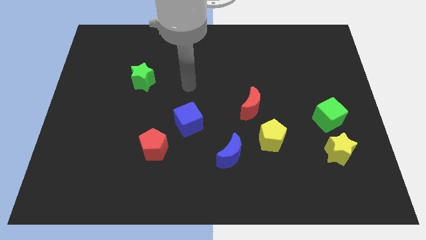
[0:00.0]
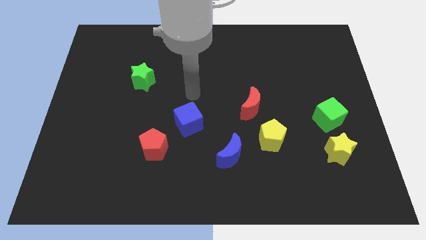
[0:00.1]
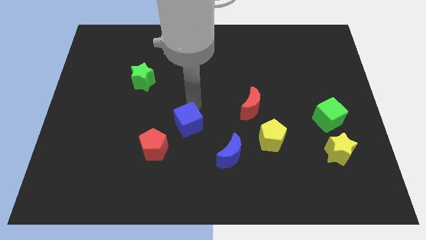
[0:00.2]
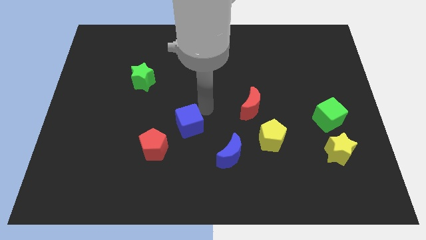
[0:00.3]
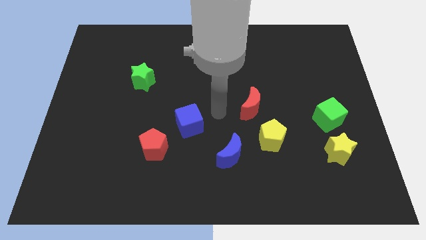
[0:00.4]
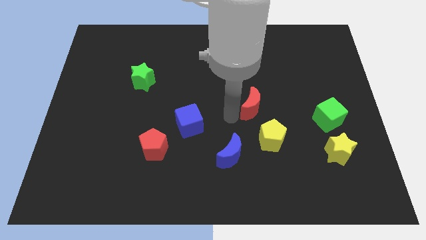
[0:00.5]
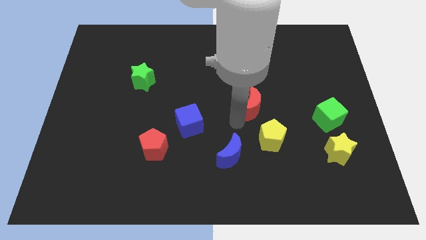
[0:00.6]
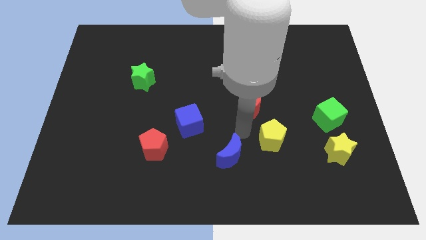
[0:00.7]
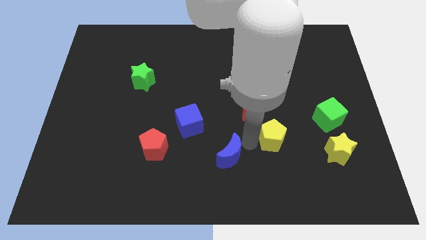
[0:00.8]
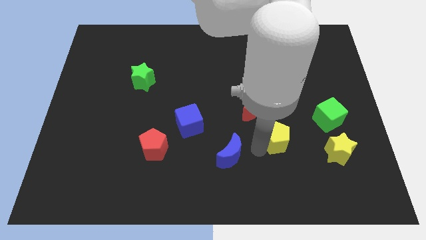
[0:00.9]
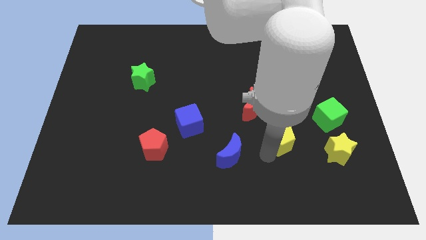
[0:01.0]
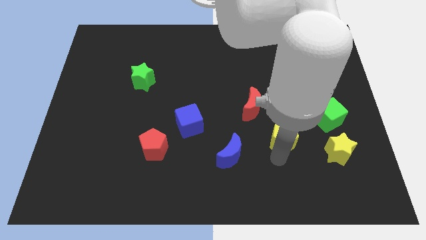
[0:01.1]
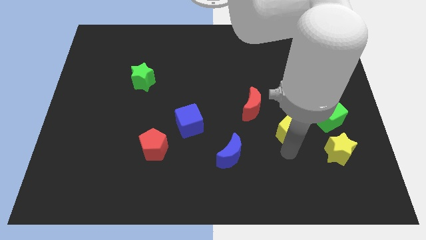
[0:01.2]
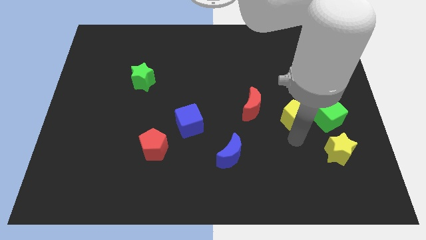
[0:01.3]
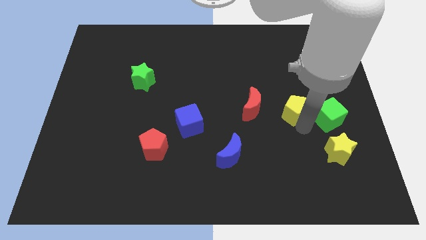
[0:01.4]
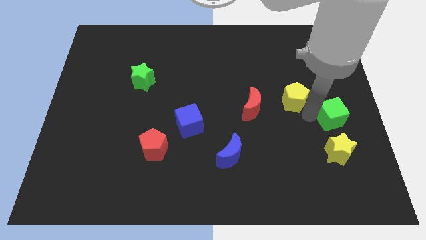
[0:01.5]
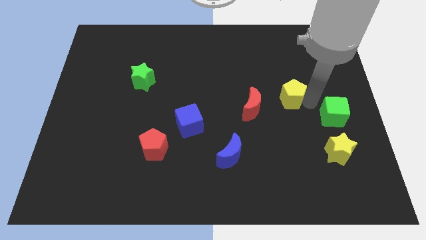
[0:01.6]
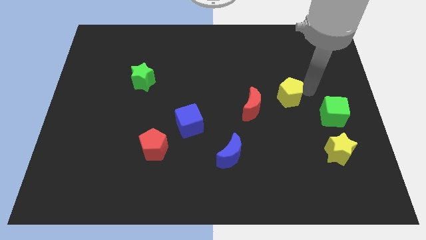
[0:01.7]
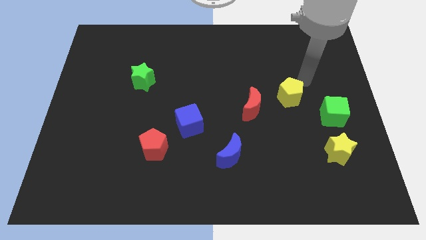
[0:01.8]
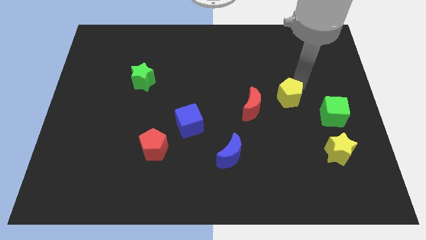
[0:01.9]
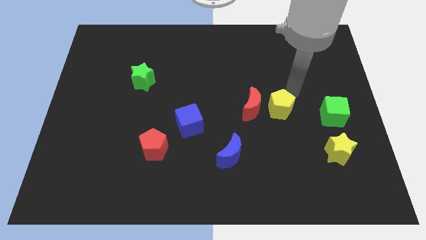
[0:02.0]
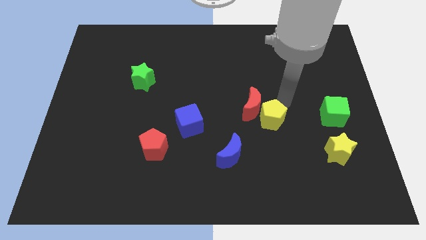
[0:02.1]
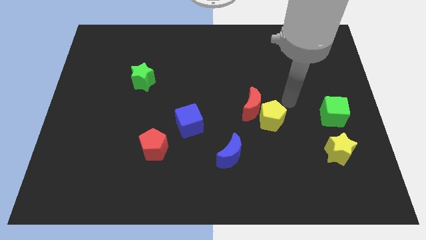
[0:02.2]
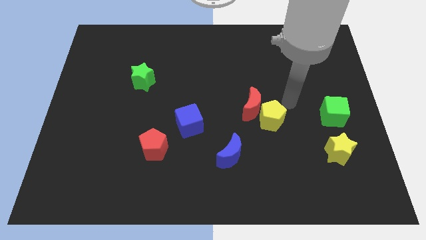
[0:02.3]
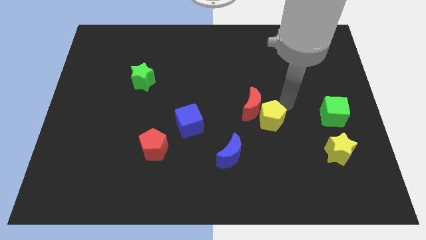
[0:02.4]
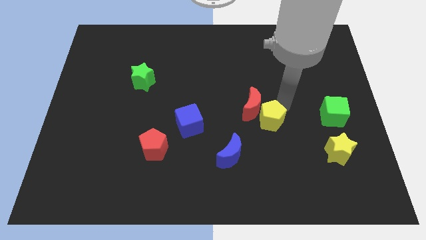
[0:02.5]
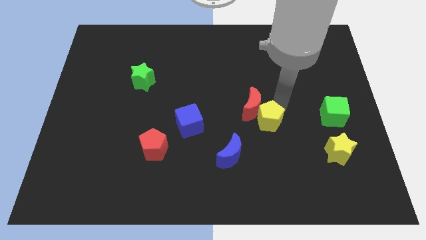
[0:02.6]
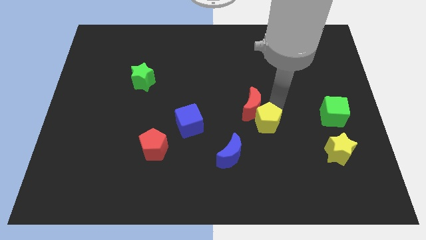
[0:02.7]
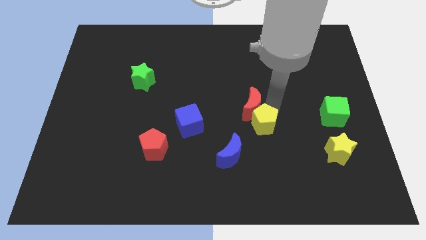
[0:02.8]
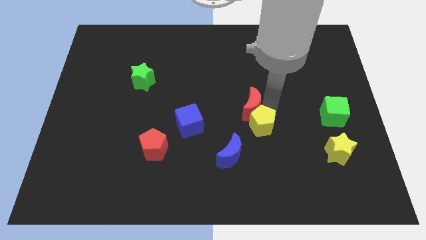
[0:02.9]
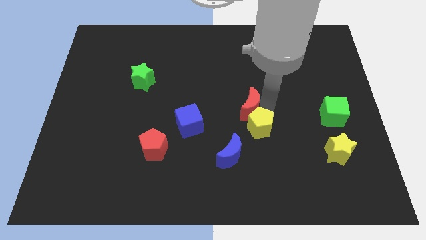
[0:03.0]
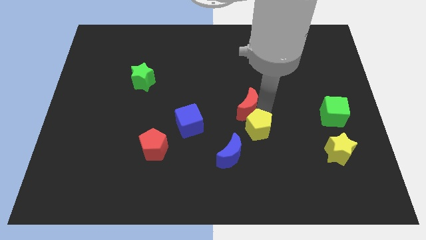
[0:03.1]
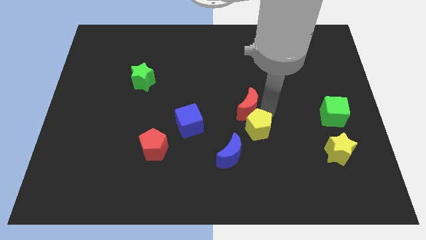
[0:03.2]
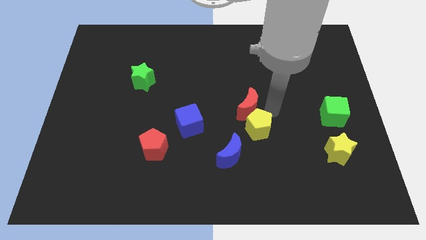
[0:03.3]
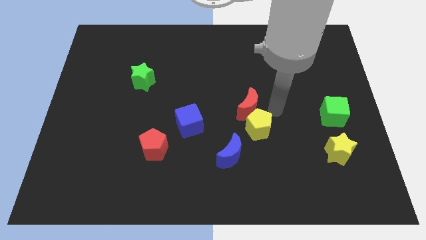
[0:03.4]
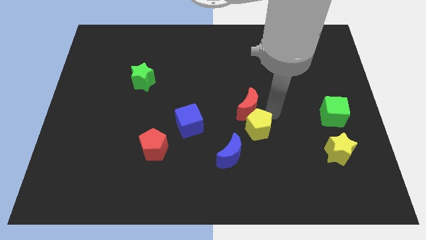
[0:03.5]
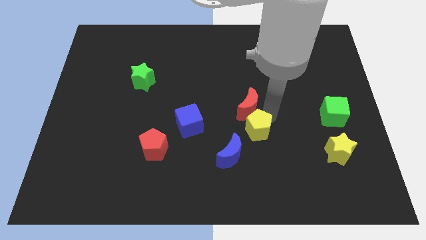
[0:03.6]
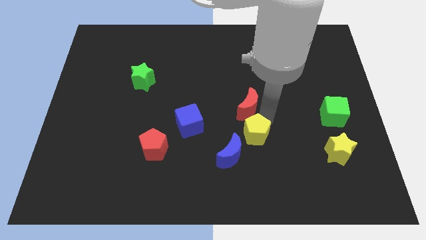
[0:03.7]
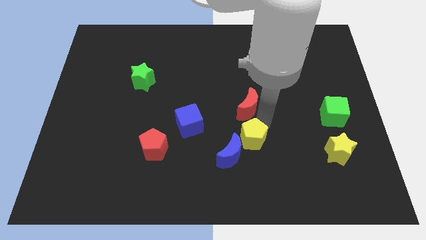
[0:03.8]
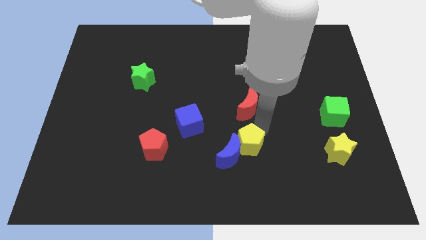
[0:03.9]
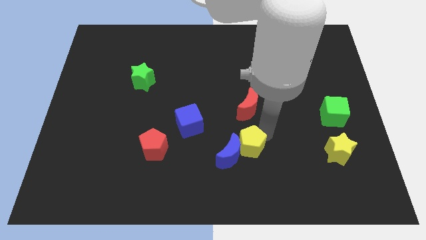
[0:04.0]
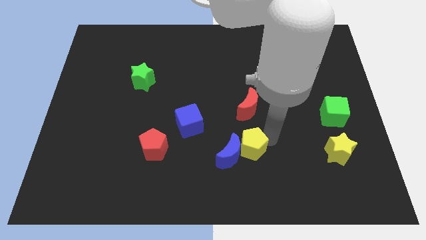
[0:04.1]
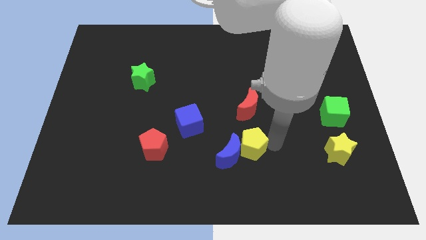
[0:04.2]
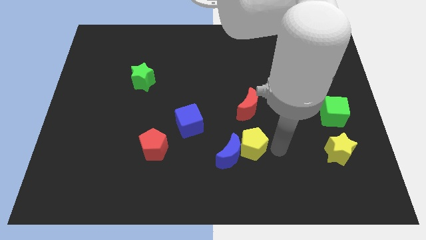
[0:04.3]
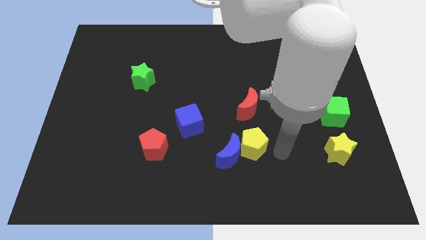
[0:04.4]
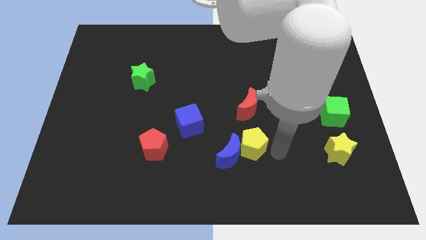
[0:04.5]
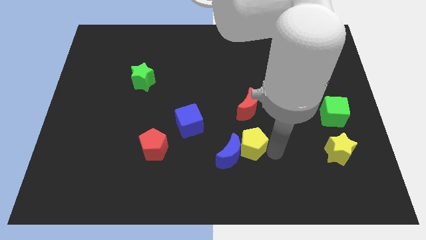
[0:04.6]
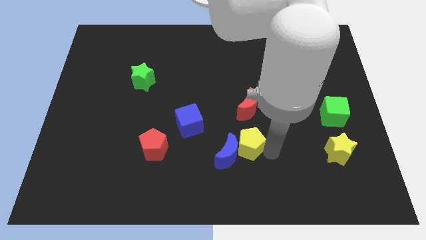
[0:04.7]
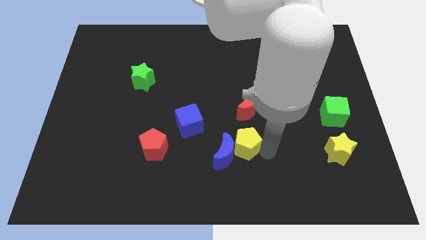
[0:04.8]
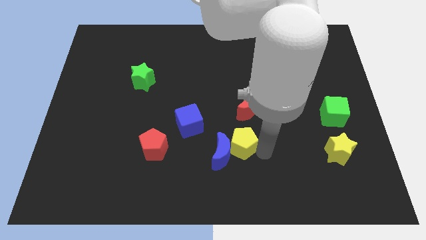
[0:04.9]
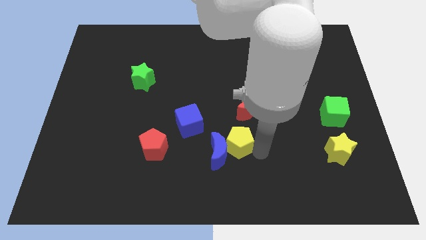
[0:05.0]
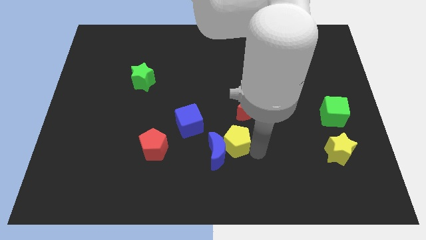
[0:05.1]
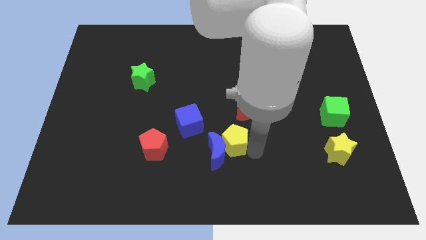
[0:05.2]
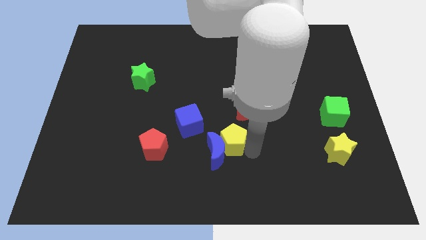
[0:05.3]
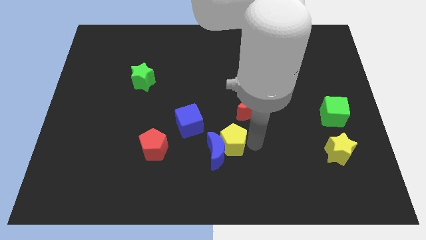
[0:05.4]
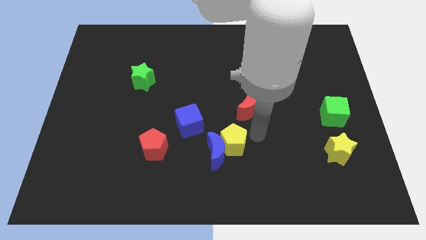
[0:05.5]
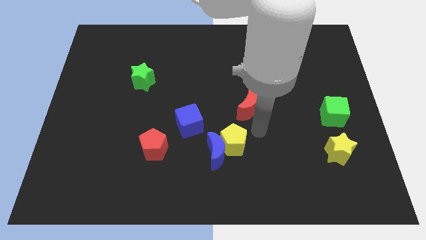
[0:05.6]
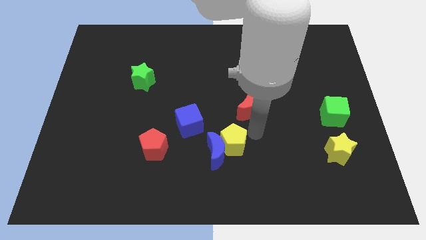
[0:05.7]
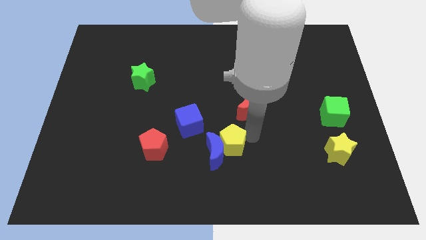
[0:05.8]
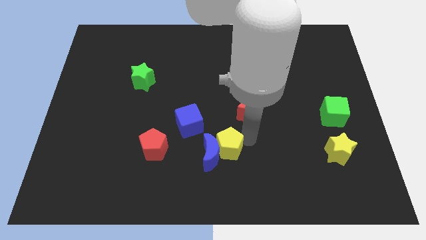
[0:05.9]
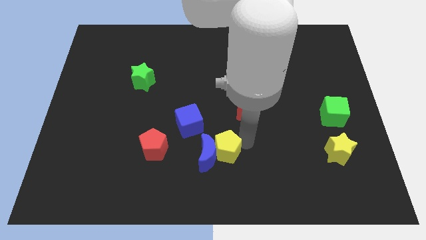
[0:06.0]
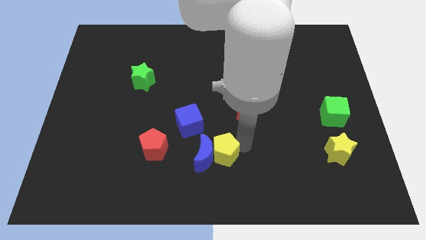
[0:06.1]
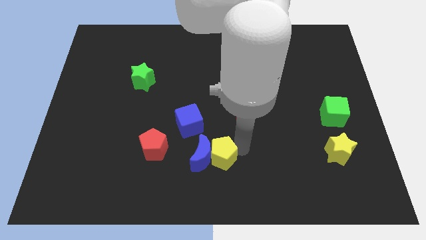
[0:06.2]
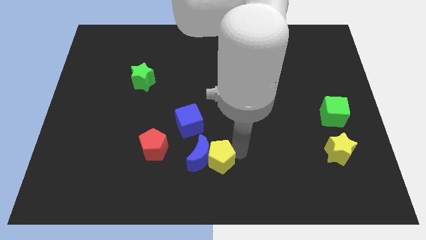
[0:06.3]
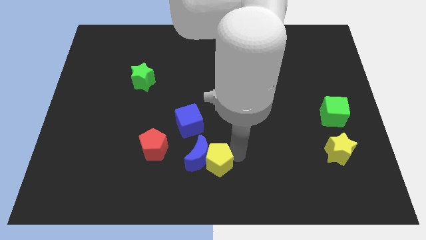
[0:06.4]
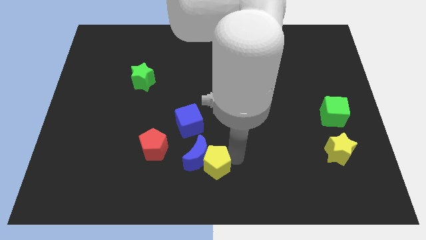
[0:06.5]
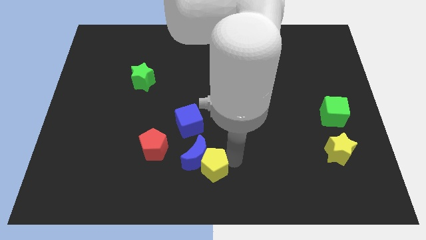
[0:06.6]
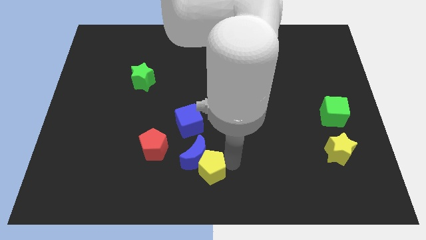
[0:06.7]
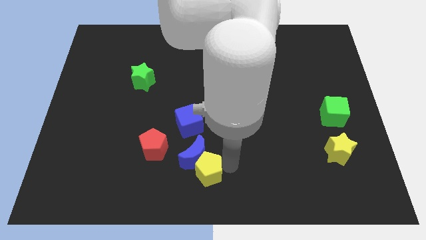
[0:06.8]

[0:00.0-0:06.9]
slide the yellow pentagon to the bottom side of the blue cube

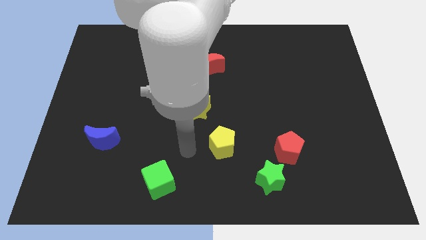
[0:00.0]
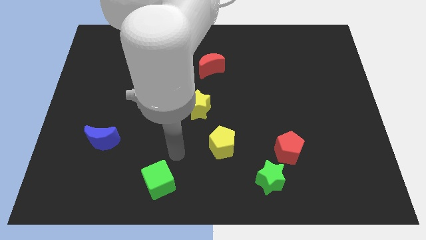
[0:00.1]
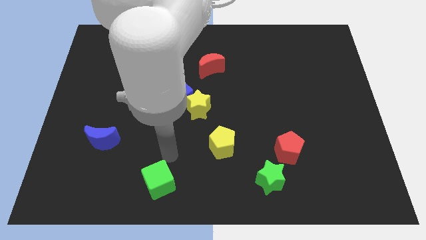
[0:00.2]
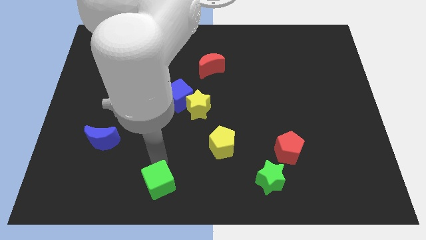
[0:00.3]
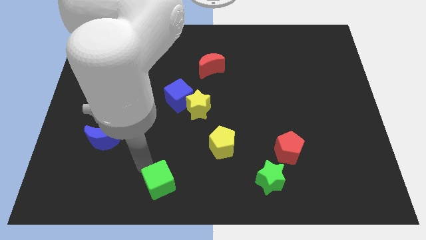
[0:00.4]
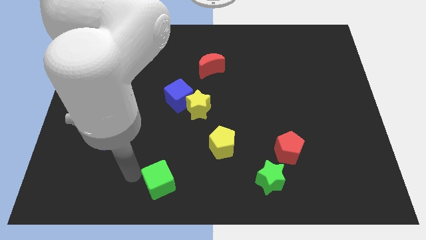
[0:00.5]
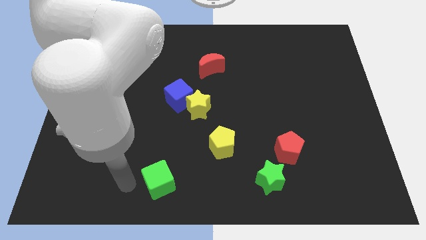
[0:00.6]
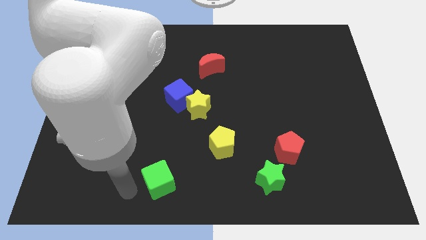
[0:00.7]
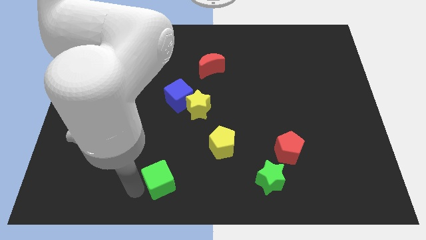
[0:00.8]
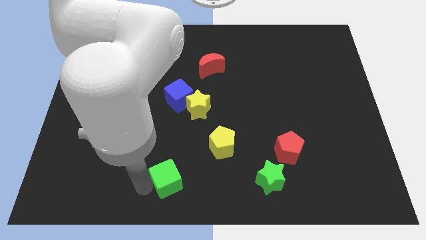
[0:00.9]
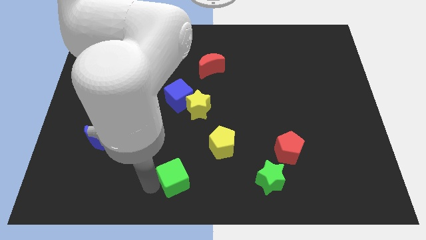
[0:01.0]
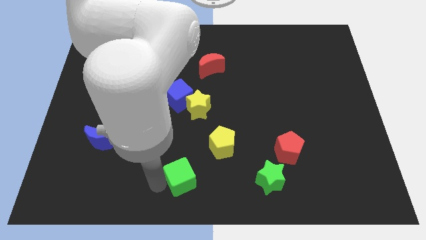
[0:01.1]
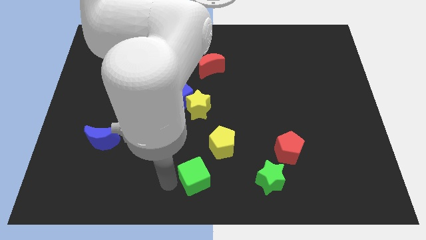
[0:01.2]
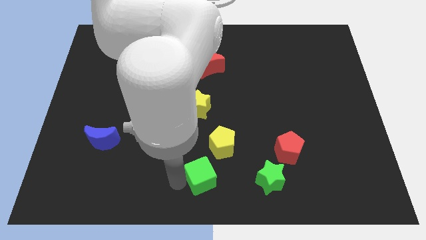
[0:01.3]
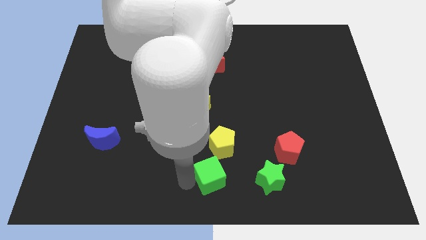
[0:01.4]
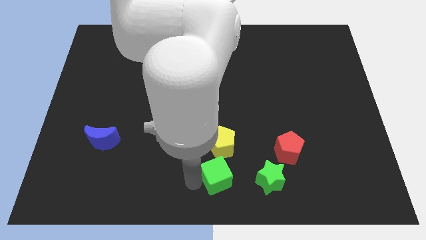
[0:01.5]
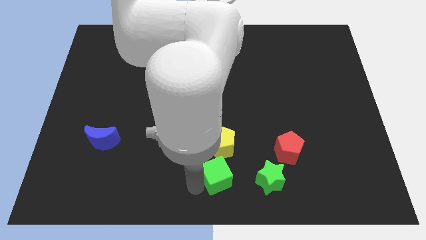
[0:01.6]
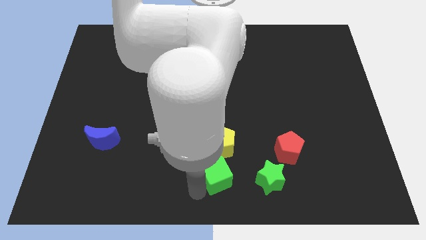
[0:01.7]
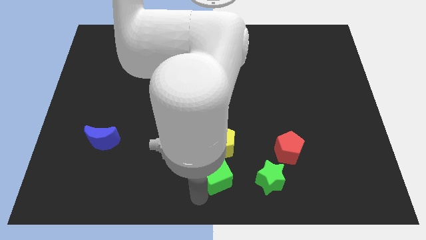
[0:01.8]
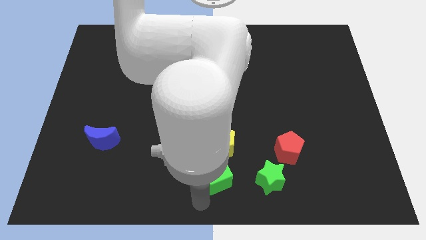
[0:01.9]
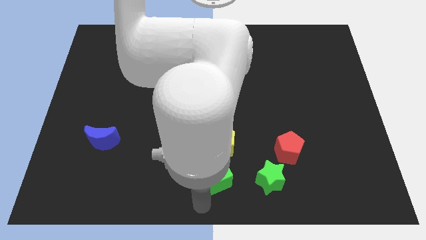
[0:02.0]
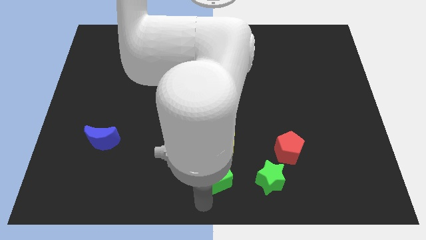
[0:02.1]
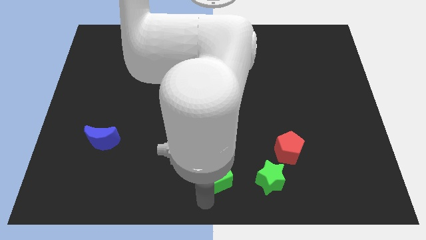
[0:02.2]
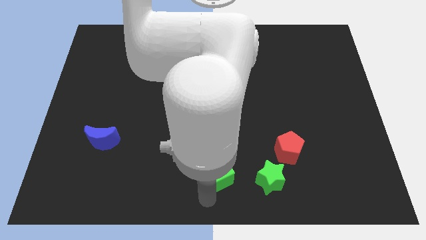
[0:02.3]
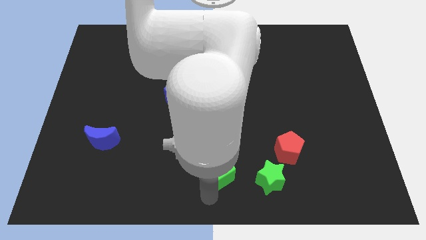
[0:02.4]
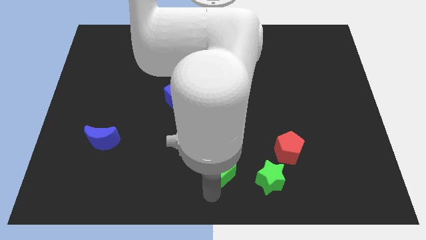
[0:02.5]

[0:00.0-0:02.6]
move the green cube diagonally down and to the right of the yellow pentagon
